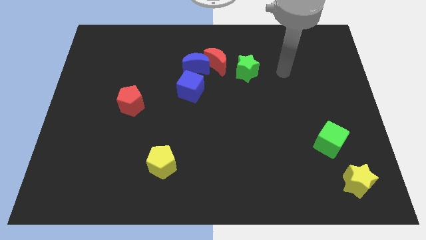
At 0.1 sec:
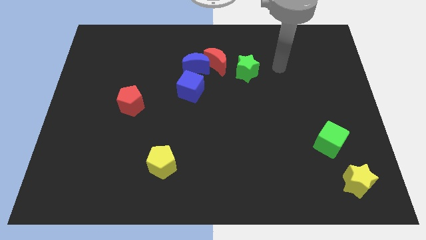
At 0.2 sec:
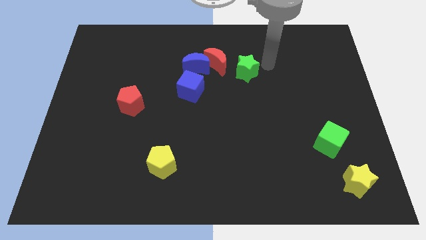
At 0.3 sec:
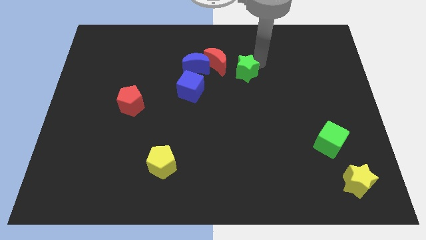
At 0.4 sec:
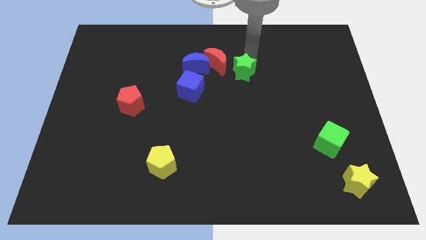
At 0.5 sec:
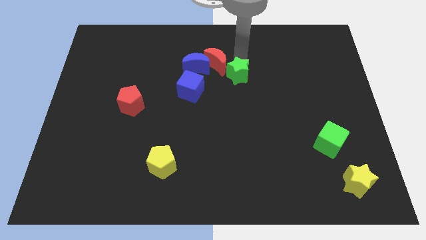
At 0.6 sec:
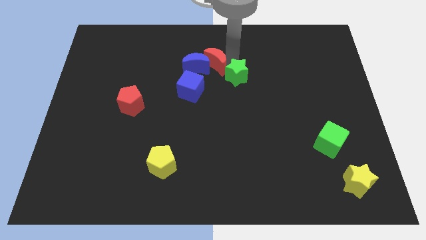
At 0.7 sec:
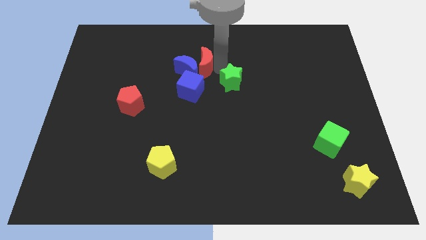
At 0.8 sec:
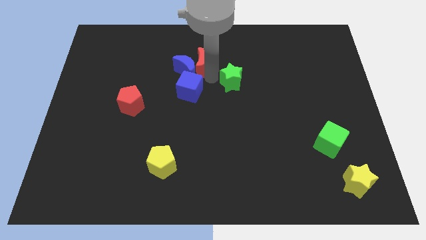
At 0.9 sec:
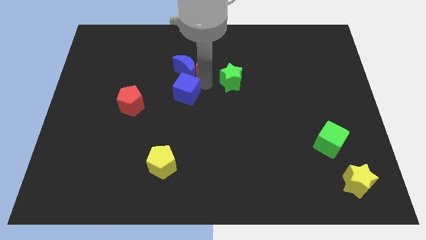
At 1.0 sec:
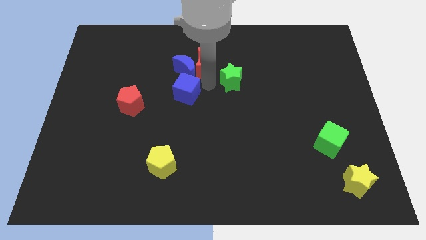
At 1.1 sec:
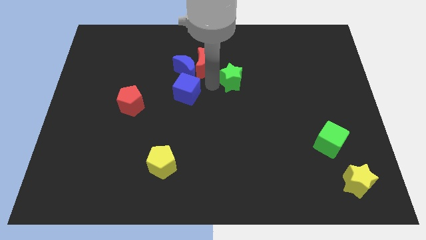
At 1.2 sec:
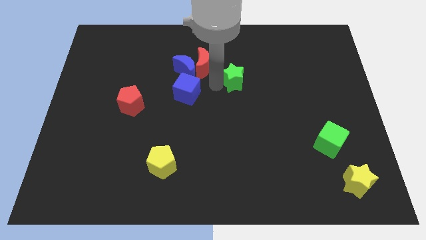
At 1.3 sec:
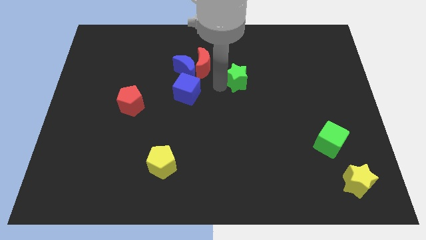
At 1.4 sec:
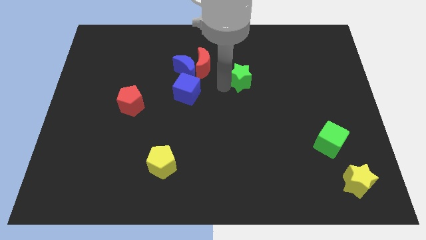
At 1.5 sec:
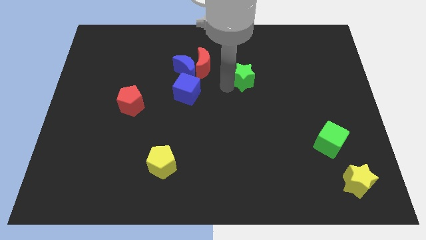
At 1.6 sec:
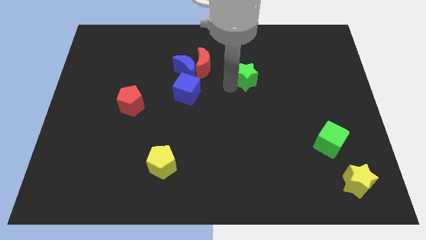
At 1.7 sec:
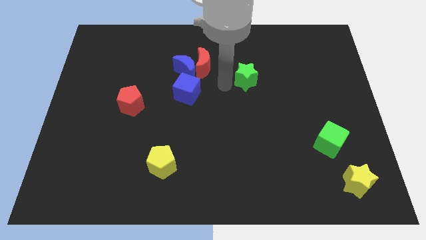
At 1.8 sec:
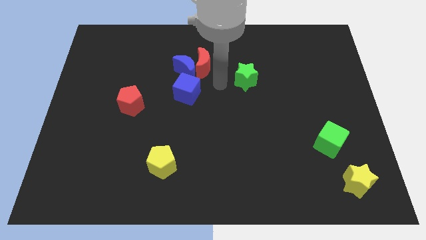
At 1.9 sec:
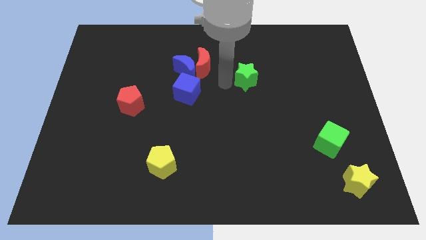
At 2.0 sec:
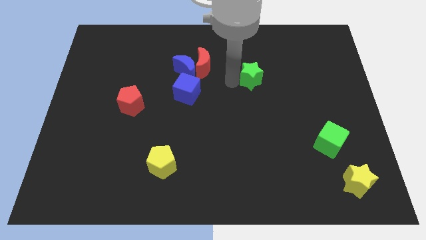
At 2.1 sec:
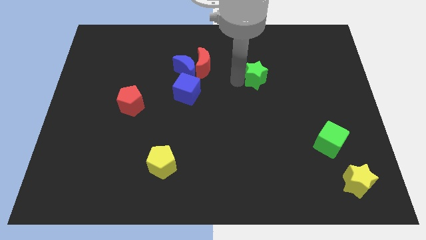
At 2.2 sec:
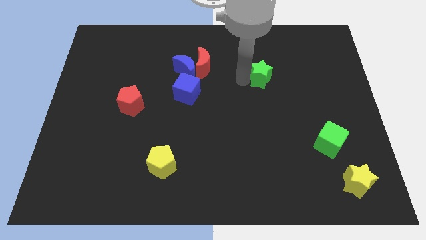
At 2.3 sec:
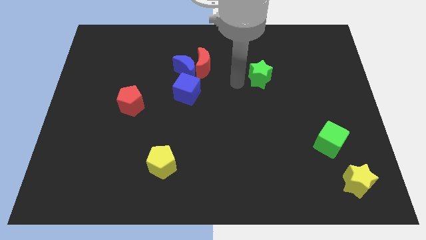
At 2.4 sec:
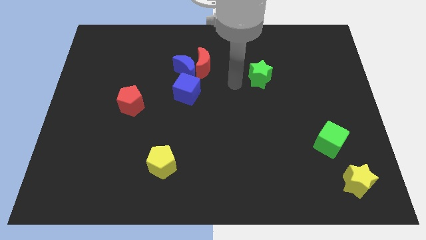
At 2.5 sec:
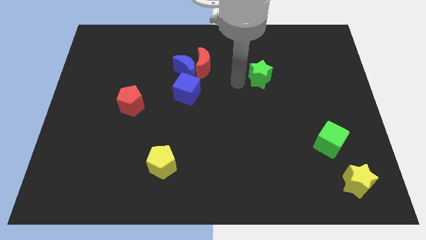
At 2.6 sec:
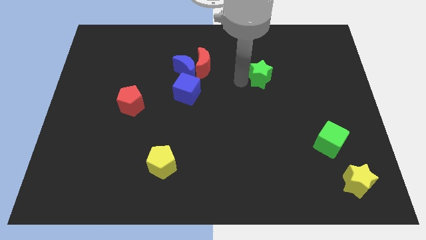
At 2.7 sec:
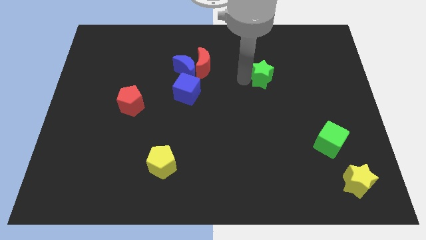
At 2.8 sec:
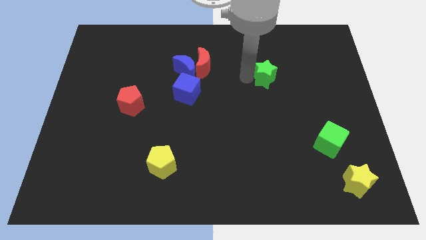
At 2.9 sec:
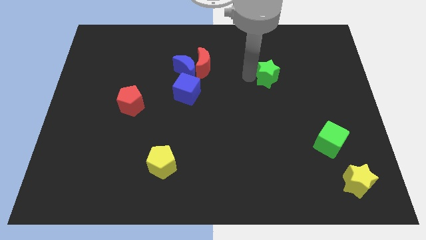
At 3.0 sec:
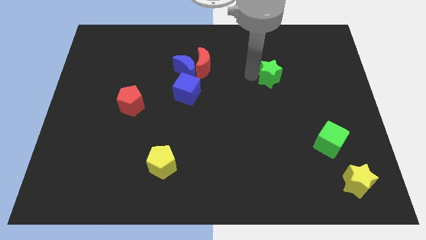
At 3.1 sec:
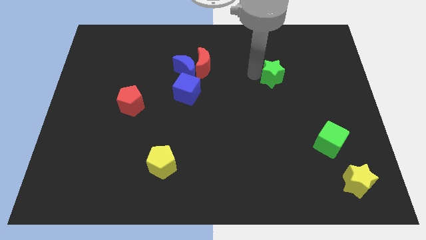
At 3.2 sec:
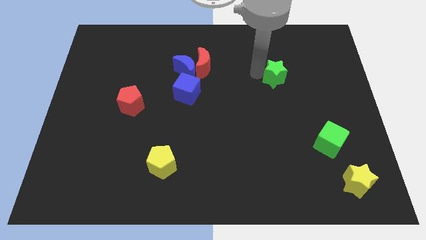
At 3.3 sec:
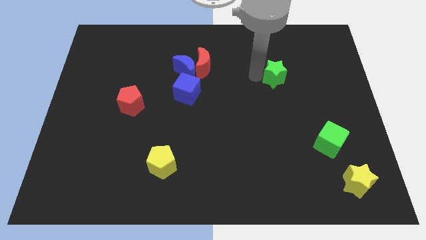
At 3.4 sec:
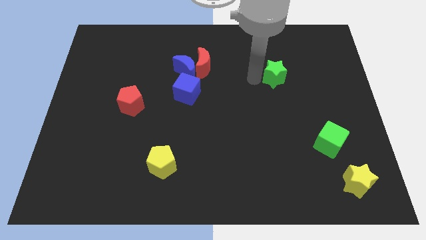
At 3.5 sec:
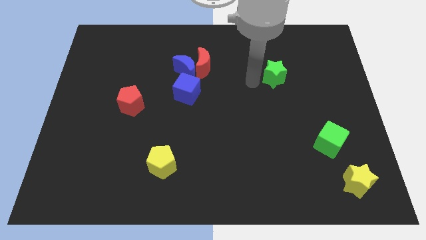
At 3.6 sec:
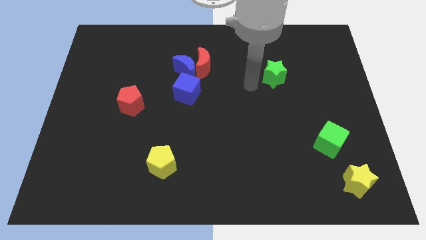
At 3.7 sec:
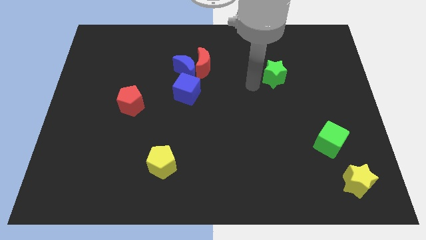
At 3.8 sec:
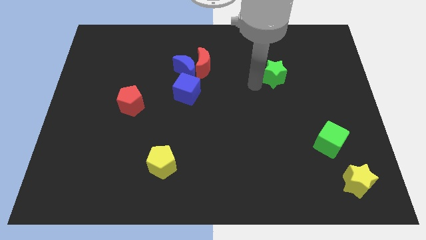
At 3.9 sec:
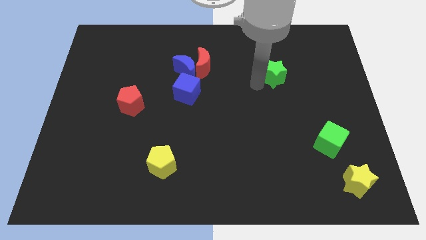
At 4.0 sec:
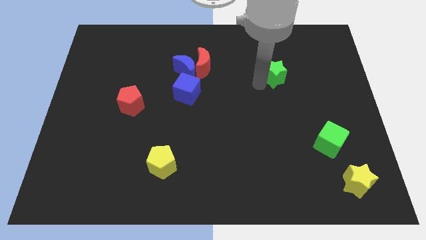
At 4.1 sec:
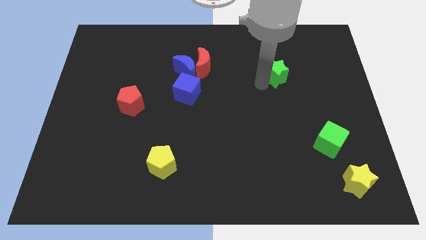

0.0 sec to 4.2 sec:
push the green star a little bit to the right

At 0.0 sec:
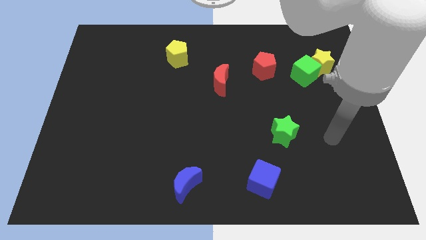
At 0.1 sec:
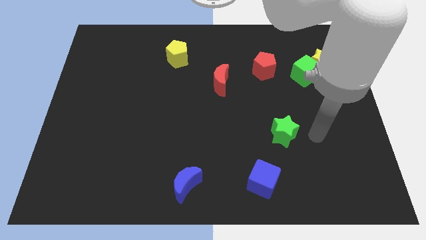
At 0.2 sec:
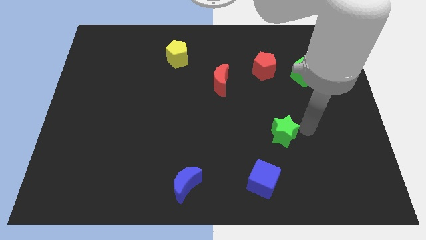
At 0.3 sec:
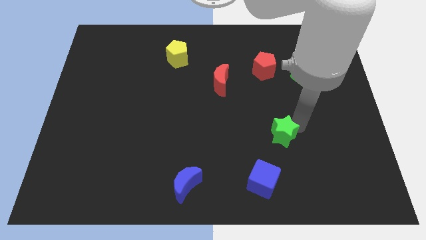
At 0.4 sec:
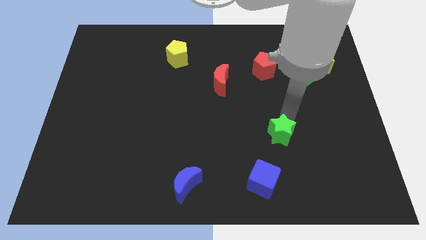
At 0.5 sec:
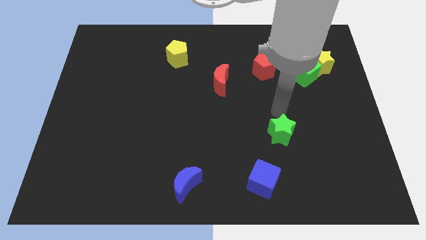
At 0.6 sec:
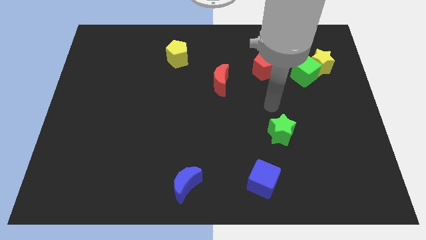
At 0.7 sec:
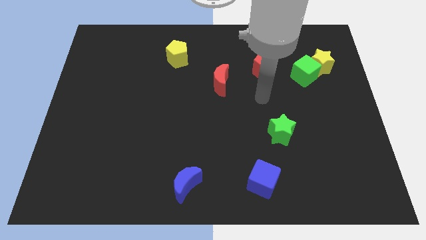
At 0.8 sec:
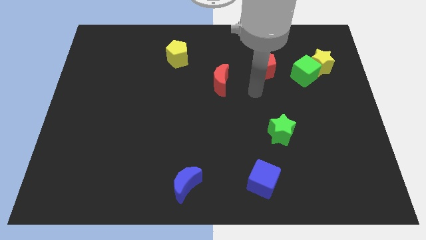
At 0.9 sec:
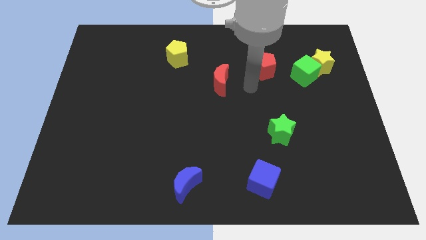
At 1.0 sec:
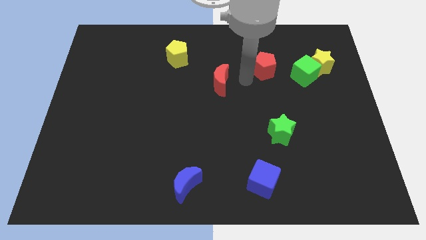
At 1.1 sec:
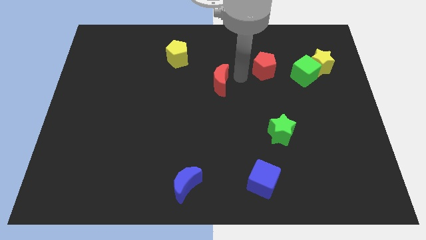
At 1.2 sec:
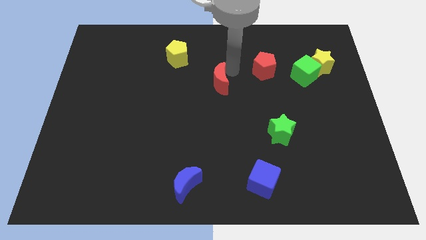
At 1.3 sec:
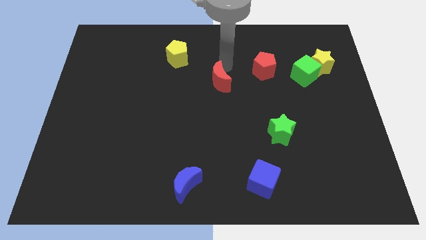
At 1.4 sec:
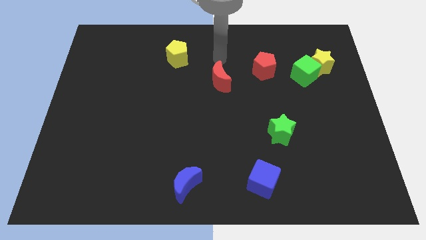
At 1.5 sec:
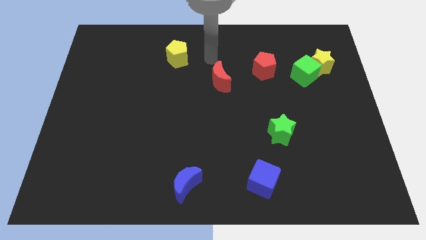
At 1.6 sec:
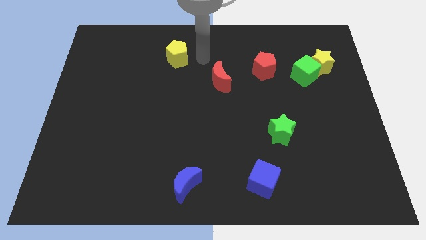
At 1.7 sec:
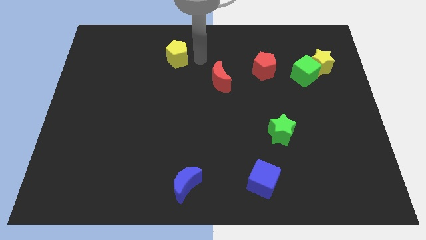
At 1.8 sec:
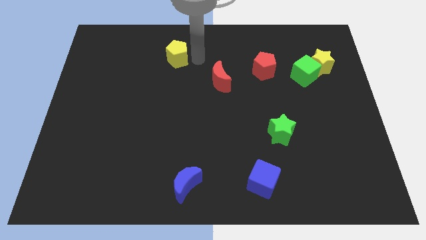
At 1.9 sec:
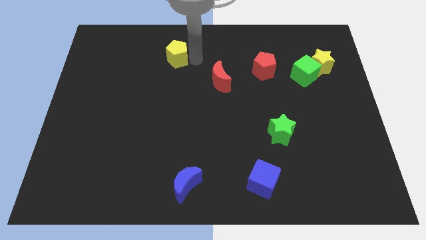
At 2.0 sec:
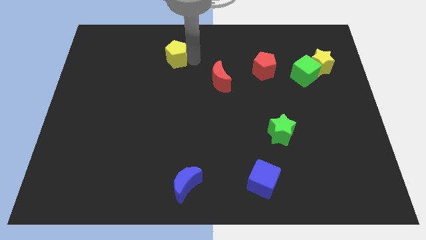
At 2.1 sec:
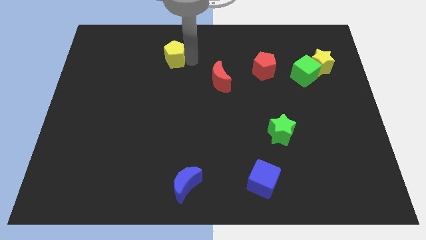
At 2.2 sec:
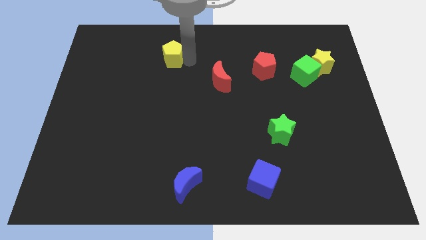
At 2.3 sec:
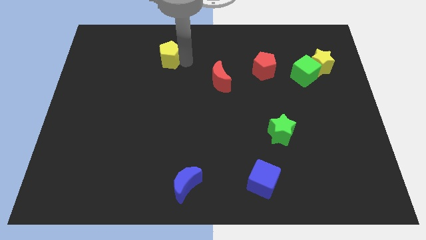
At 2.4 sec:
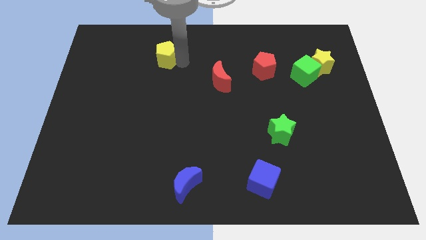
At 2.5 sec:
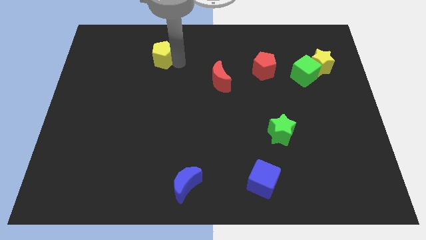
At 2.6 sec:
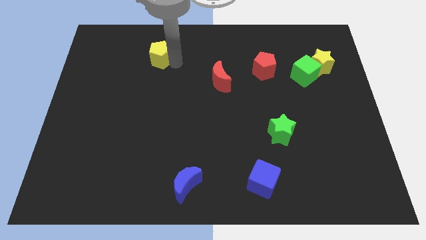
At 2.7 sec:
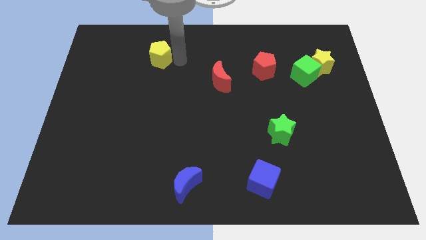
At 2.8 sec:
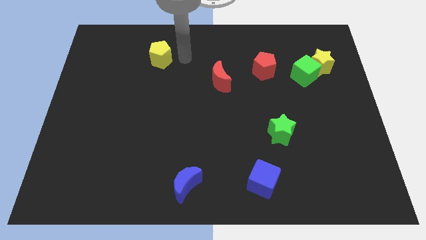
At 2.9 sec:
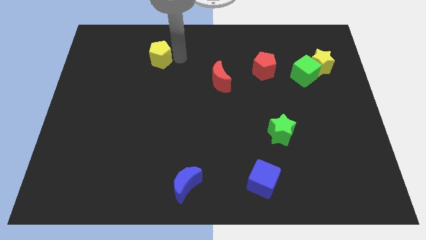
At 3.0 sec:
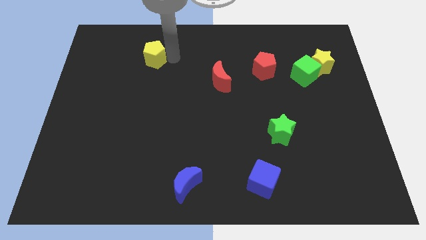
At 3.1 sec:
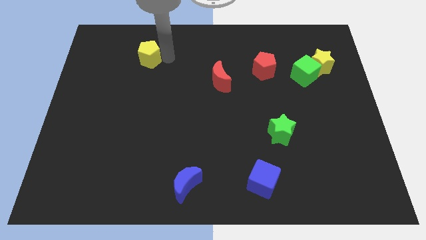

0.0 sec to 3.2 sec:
push the yellow pentagon a bit to the left

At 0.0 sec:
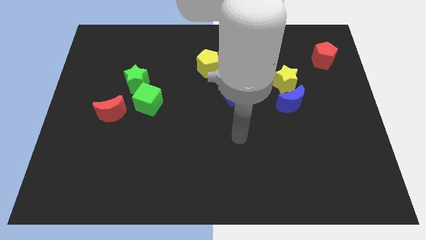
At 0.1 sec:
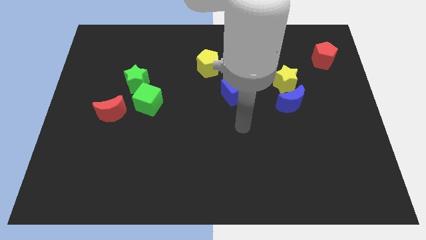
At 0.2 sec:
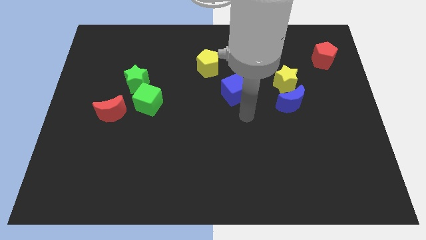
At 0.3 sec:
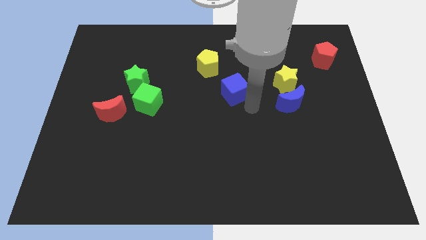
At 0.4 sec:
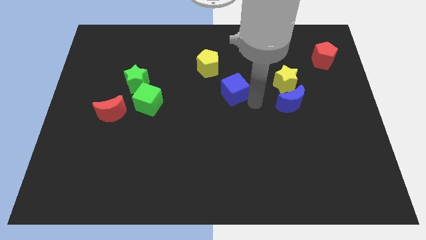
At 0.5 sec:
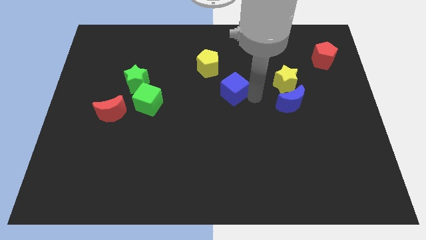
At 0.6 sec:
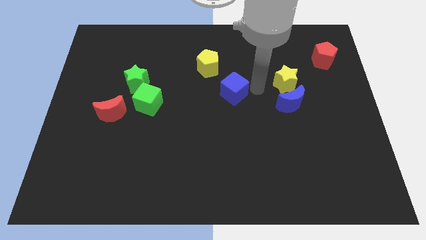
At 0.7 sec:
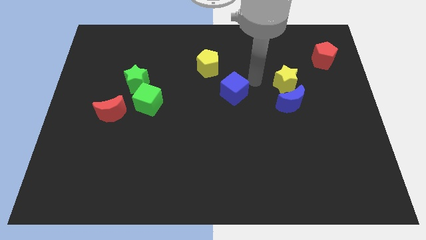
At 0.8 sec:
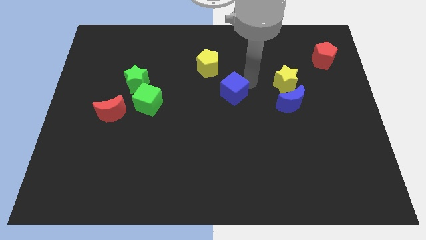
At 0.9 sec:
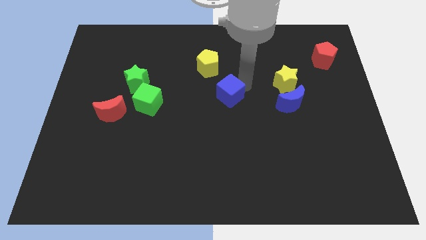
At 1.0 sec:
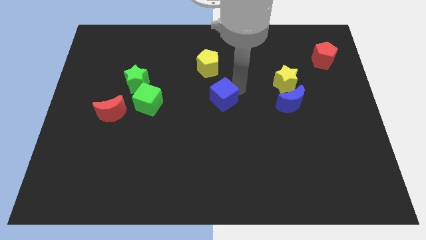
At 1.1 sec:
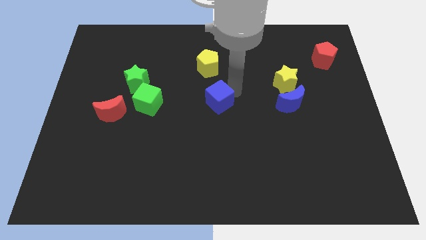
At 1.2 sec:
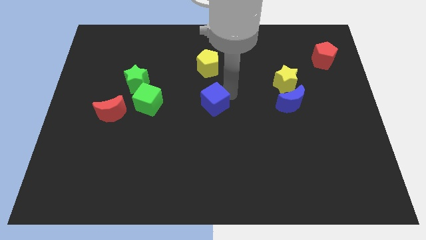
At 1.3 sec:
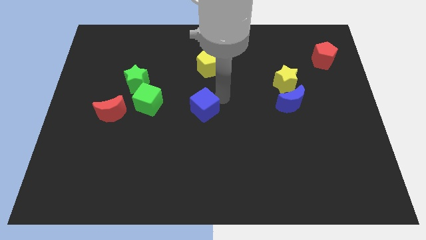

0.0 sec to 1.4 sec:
slightly slide the blue cube down and to the left diagonally
